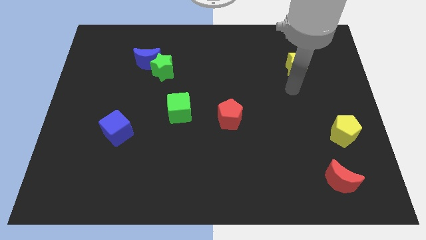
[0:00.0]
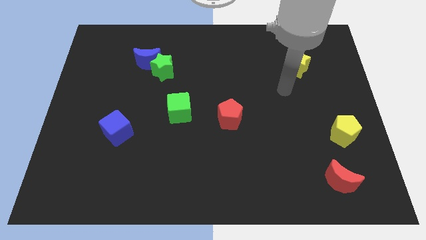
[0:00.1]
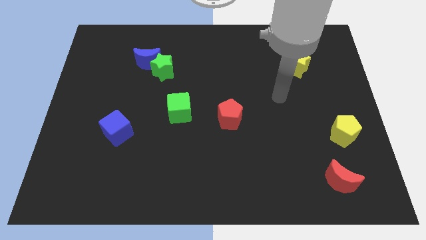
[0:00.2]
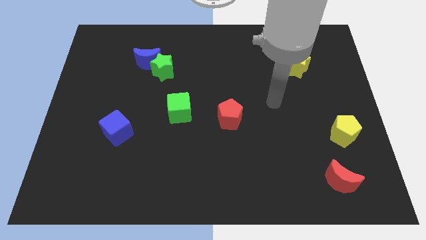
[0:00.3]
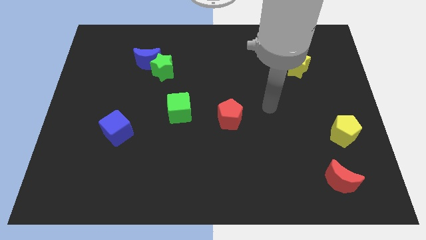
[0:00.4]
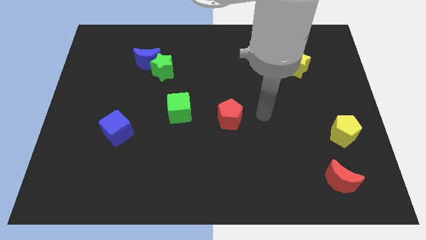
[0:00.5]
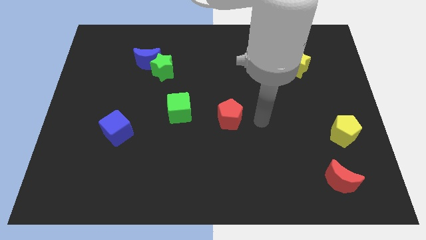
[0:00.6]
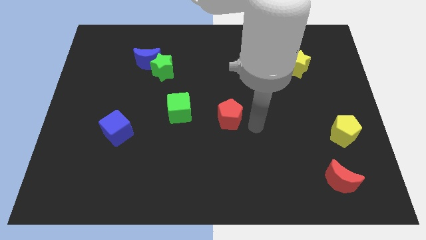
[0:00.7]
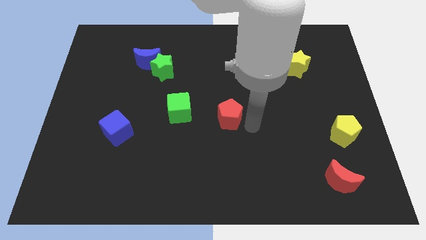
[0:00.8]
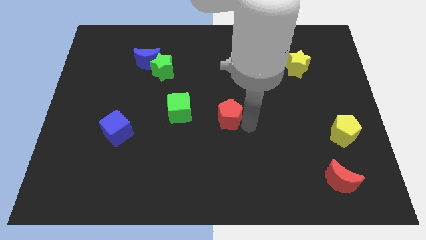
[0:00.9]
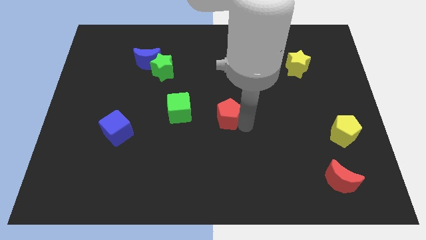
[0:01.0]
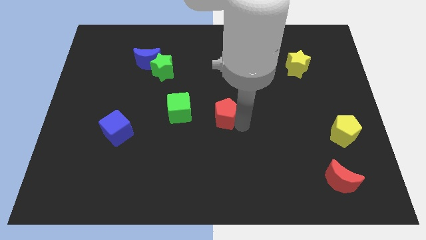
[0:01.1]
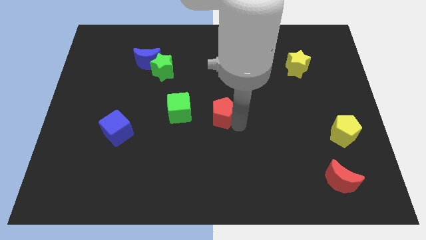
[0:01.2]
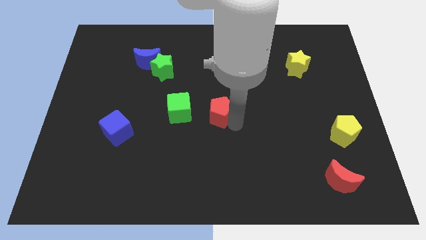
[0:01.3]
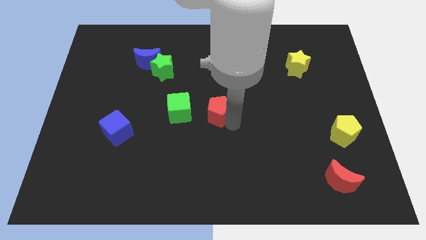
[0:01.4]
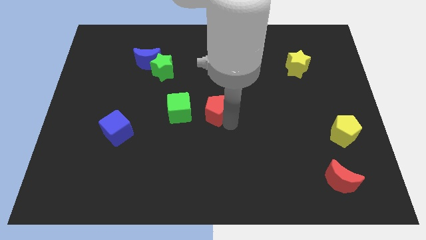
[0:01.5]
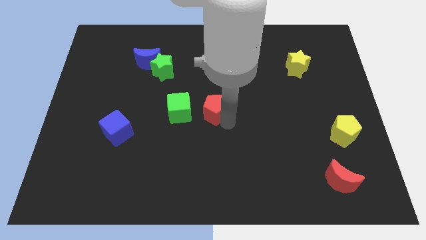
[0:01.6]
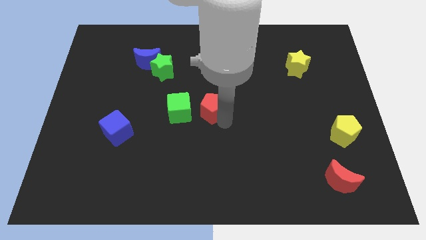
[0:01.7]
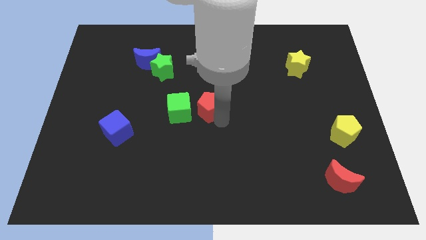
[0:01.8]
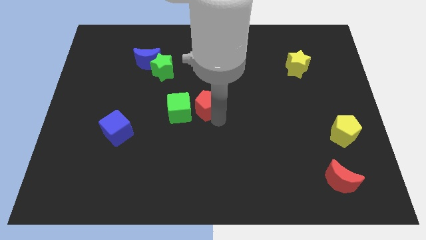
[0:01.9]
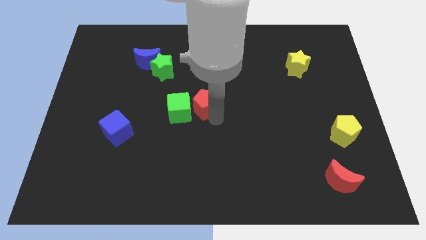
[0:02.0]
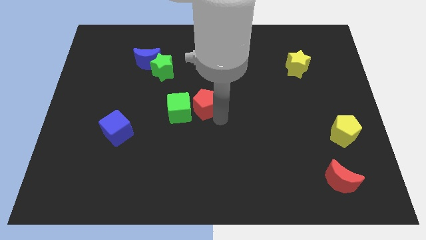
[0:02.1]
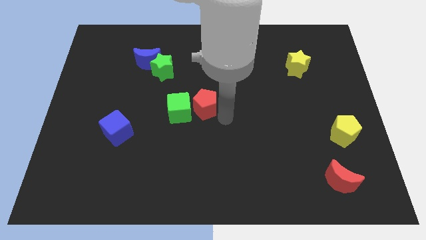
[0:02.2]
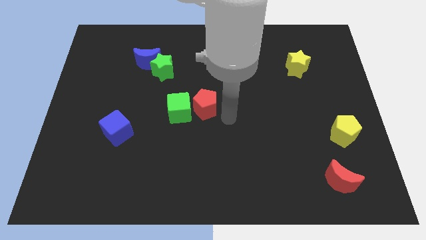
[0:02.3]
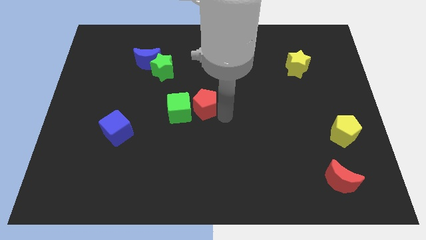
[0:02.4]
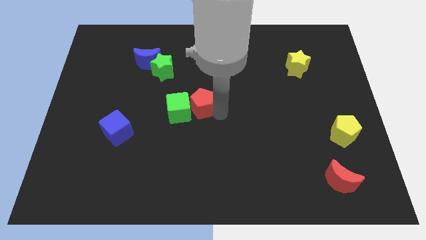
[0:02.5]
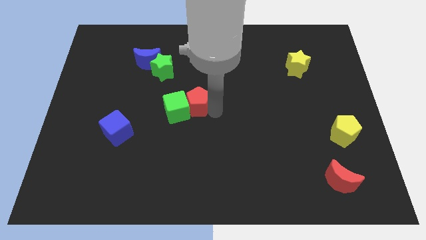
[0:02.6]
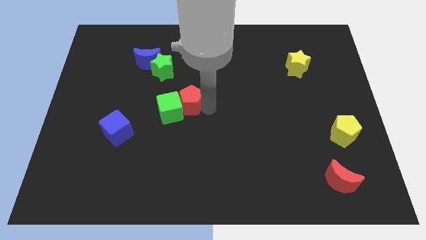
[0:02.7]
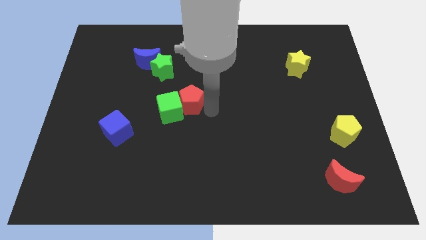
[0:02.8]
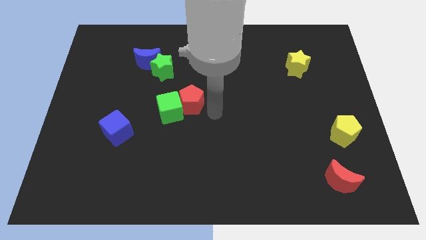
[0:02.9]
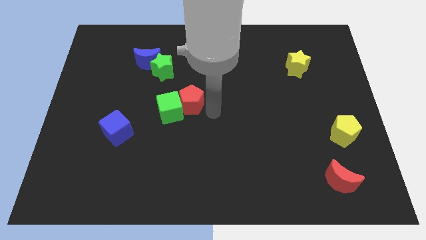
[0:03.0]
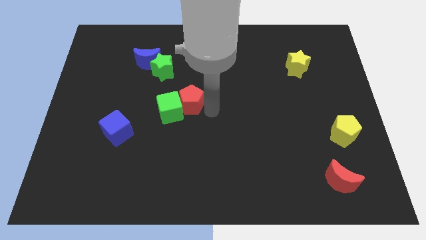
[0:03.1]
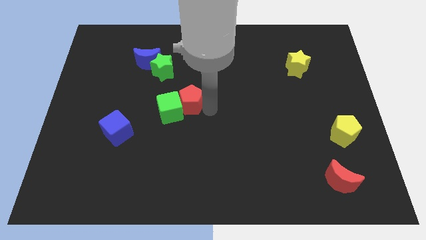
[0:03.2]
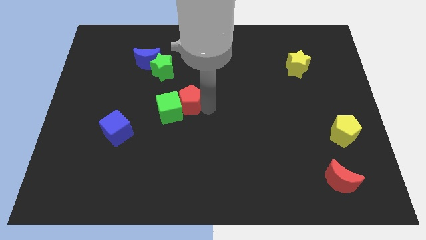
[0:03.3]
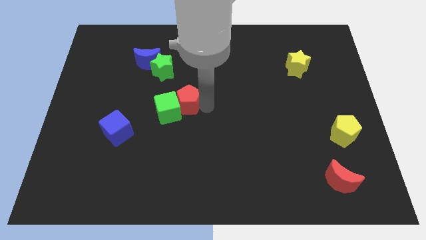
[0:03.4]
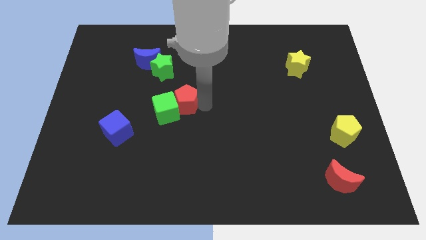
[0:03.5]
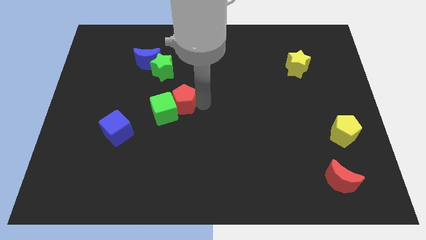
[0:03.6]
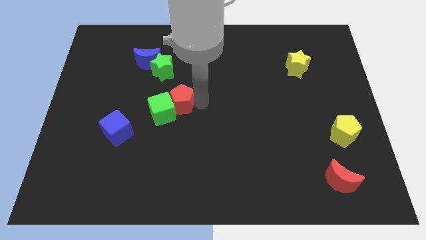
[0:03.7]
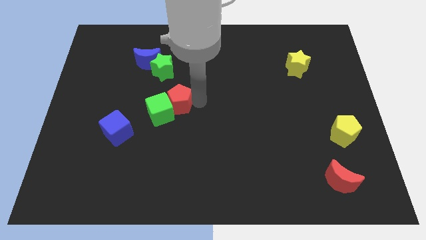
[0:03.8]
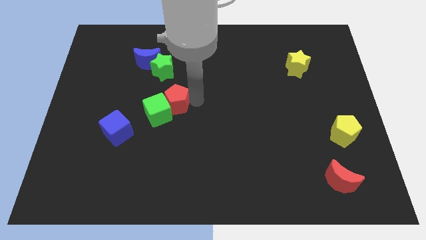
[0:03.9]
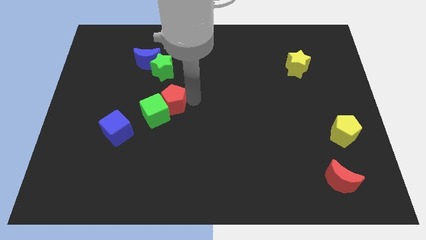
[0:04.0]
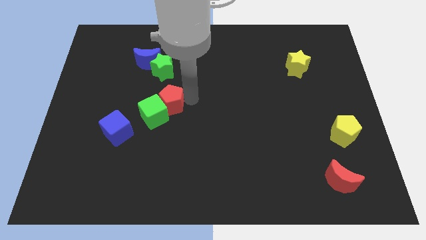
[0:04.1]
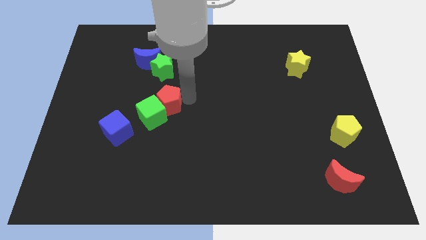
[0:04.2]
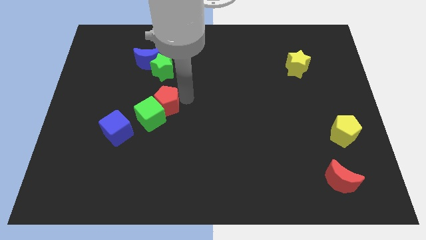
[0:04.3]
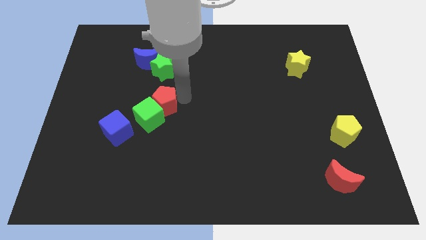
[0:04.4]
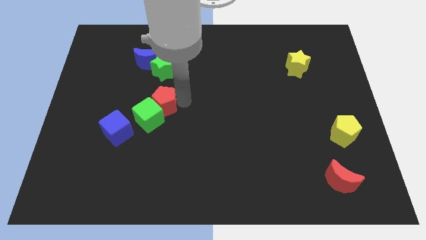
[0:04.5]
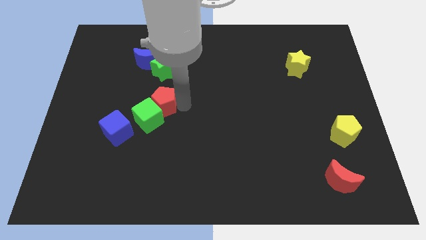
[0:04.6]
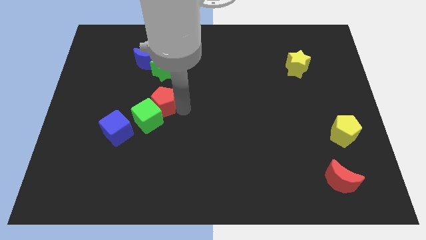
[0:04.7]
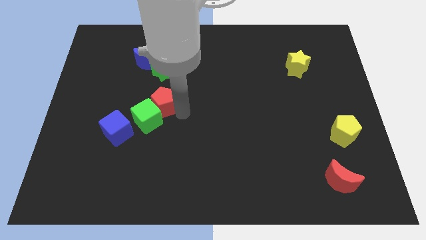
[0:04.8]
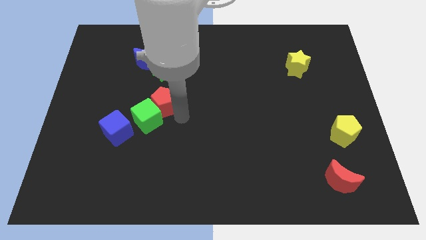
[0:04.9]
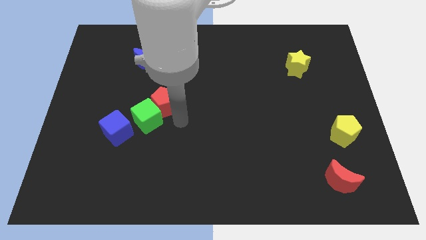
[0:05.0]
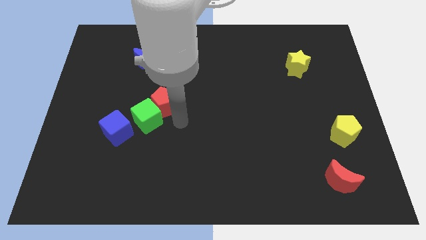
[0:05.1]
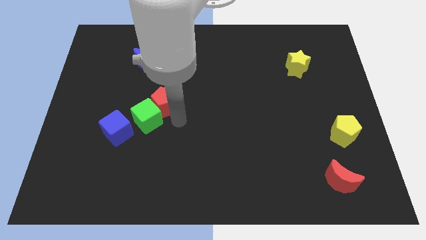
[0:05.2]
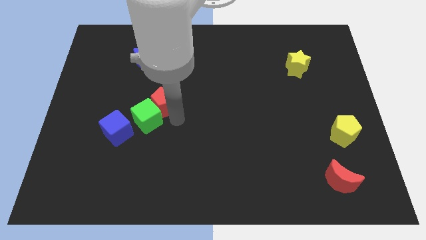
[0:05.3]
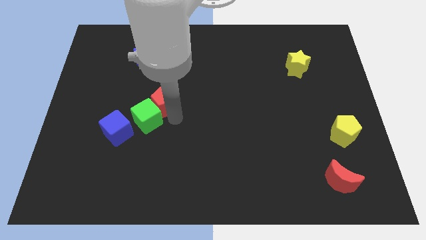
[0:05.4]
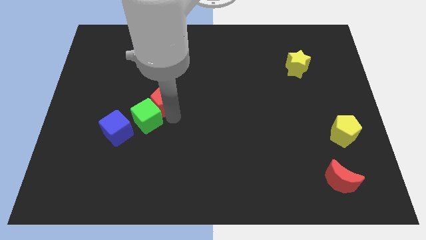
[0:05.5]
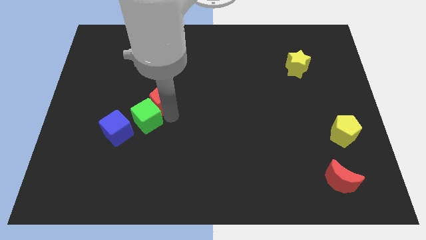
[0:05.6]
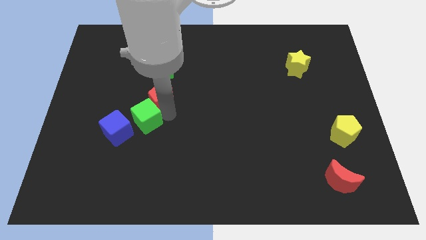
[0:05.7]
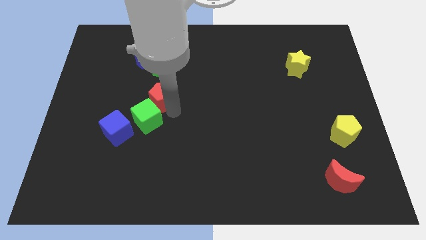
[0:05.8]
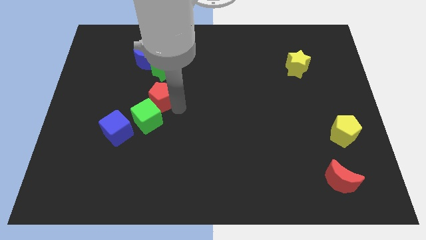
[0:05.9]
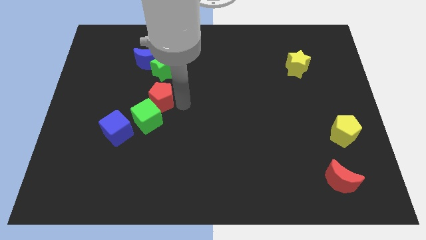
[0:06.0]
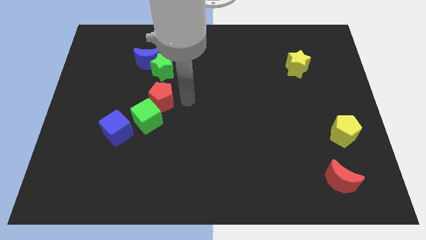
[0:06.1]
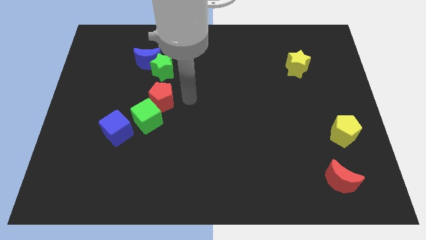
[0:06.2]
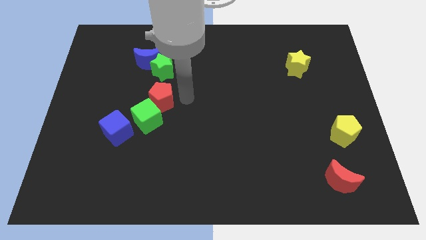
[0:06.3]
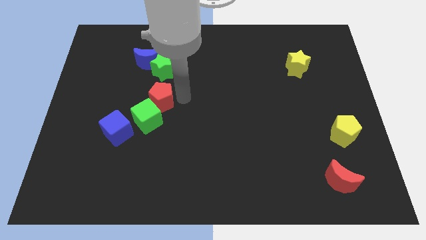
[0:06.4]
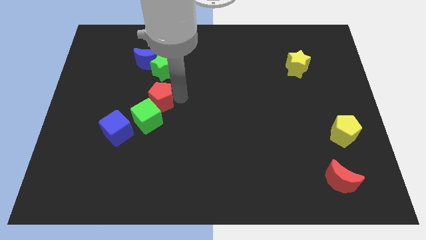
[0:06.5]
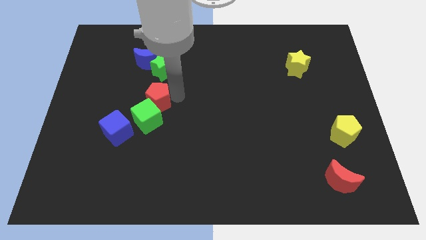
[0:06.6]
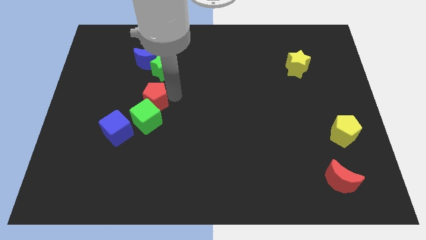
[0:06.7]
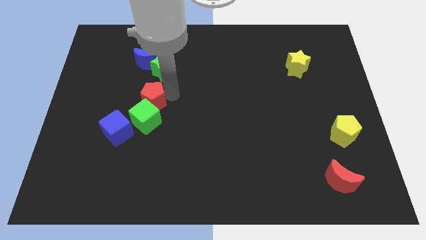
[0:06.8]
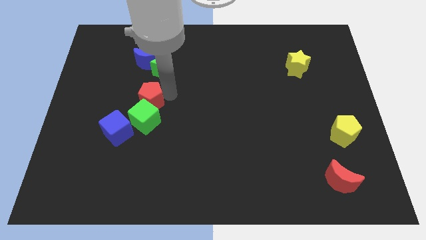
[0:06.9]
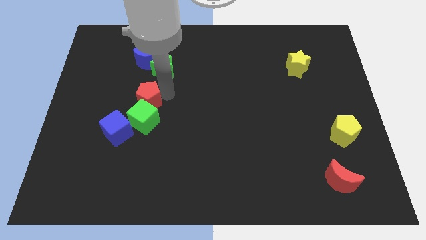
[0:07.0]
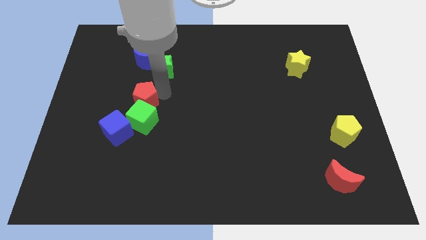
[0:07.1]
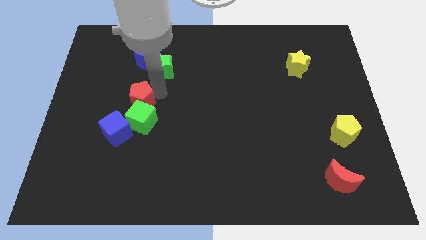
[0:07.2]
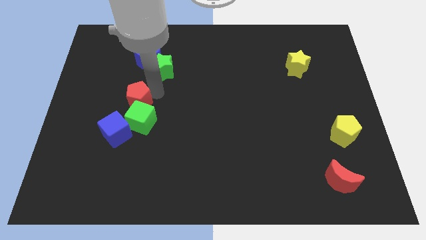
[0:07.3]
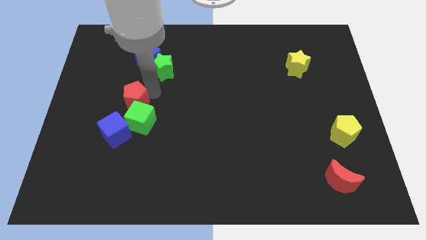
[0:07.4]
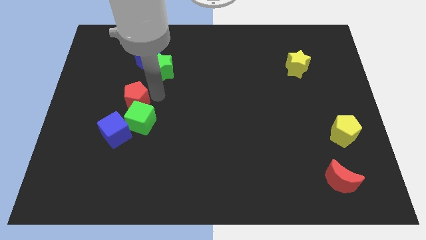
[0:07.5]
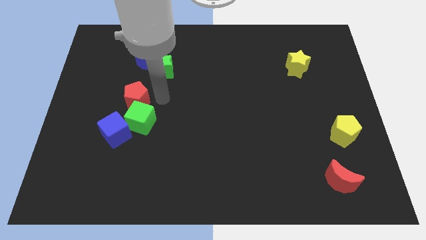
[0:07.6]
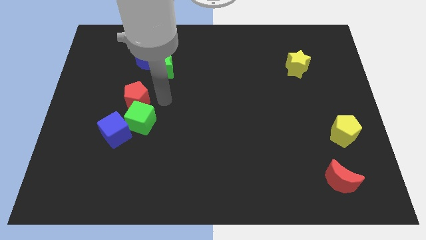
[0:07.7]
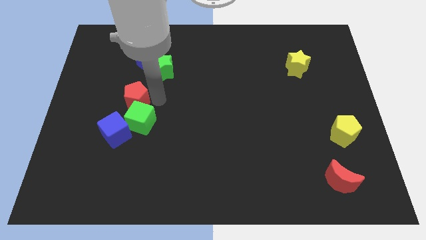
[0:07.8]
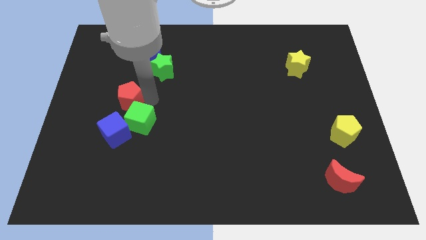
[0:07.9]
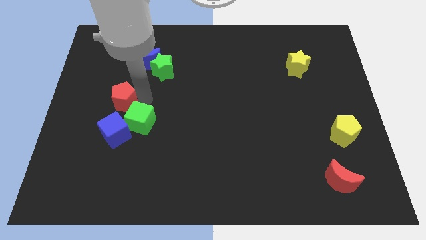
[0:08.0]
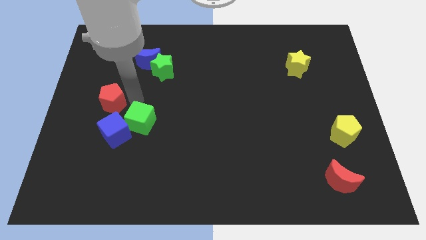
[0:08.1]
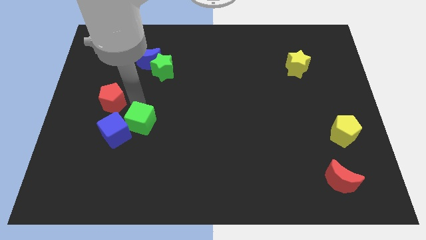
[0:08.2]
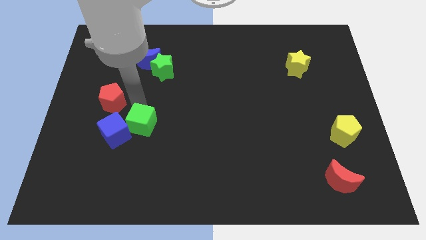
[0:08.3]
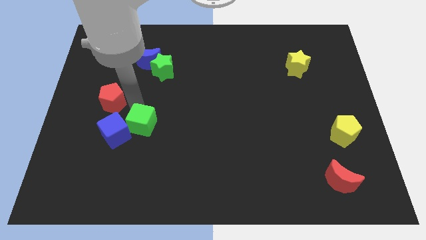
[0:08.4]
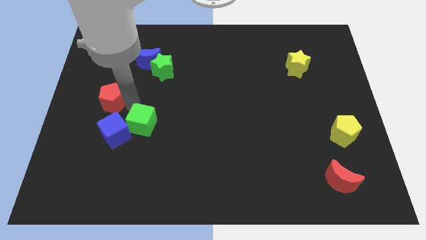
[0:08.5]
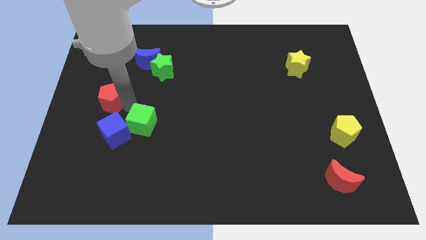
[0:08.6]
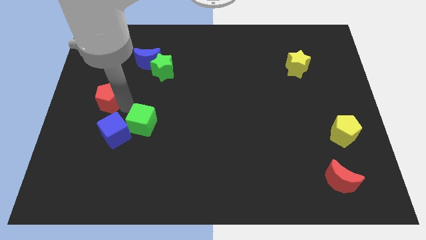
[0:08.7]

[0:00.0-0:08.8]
push the red pentagon to the left side
